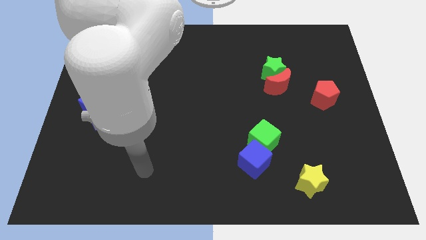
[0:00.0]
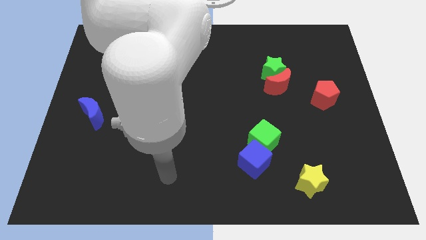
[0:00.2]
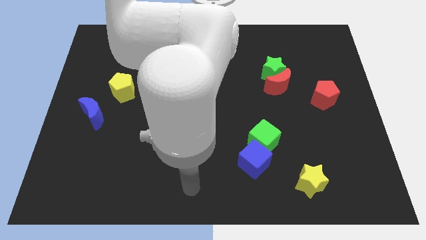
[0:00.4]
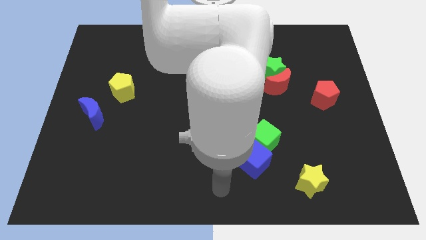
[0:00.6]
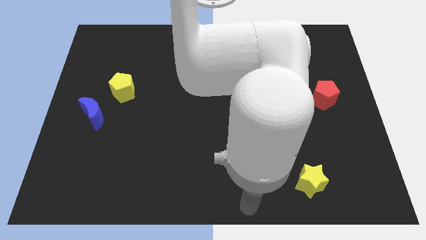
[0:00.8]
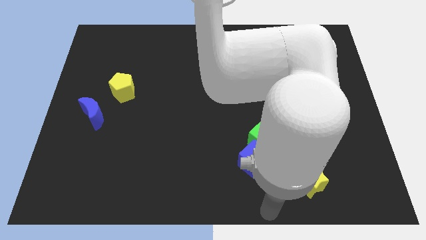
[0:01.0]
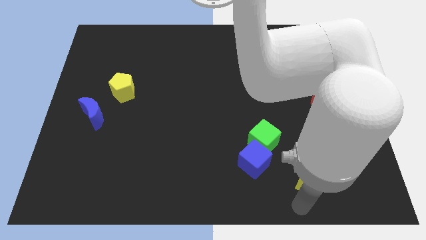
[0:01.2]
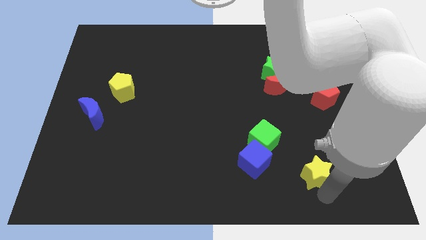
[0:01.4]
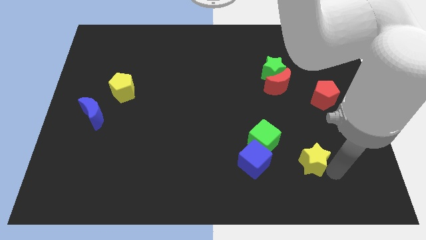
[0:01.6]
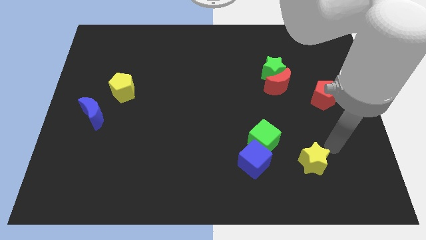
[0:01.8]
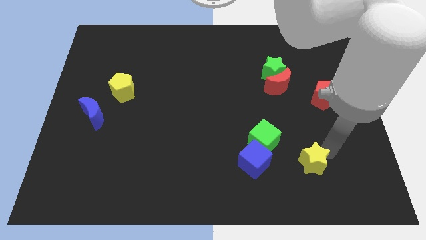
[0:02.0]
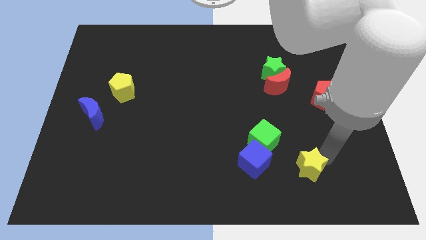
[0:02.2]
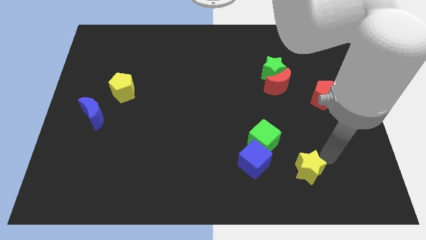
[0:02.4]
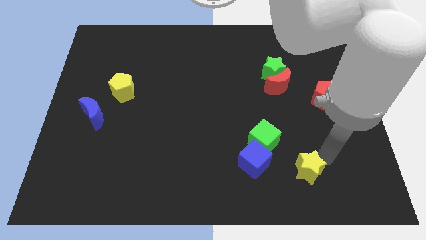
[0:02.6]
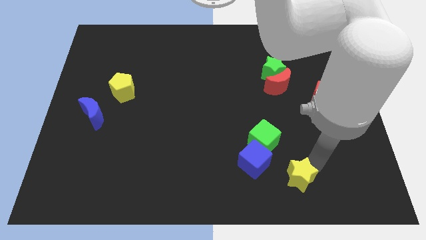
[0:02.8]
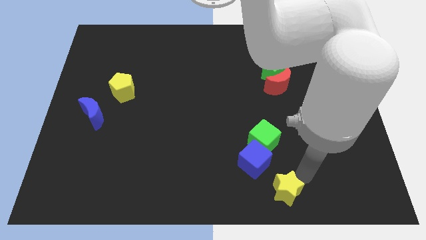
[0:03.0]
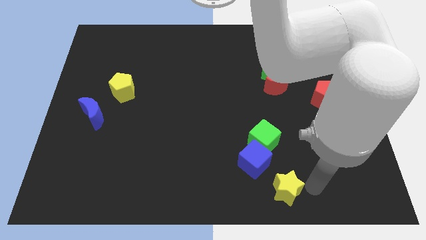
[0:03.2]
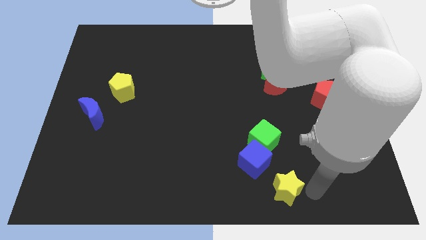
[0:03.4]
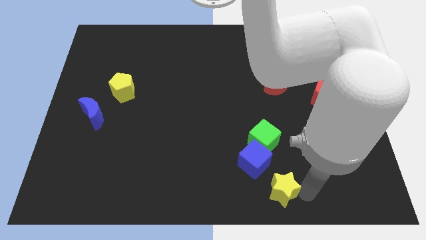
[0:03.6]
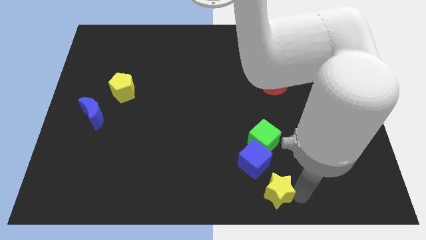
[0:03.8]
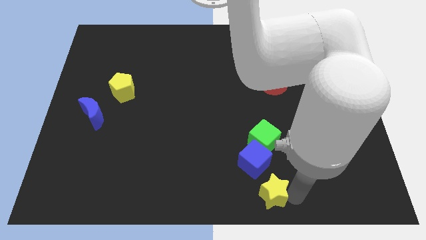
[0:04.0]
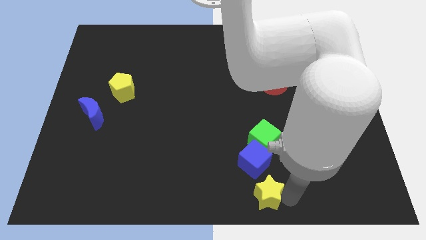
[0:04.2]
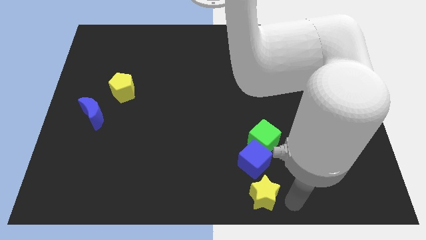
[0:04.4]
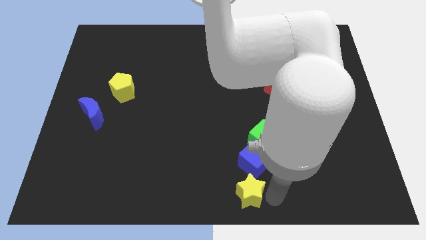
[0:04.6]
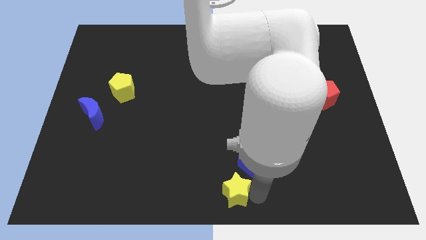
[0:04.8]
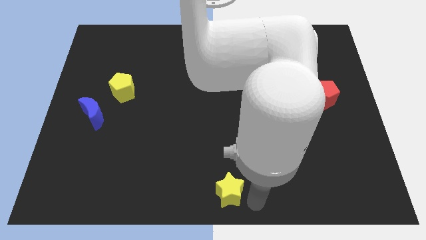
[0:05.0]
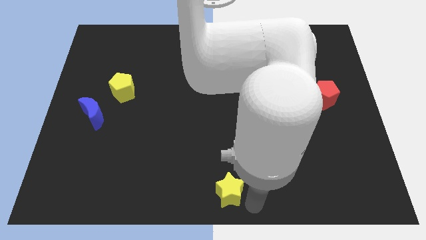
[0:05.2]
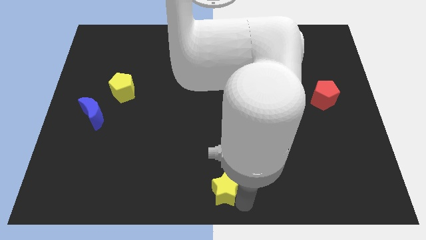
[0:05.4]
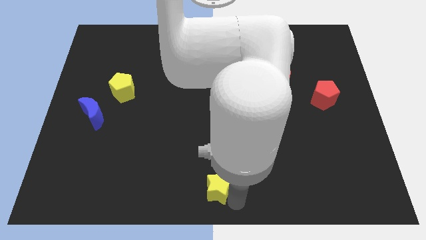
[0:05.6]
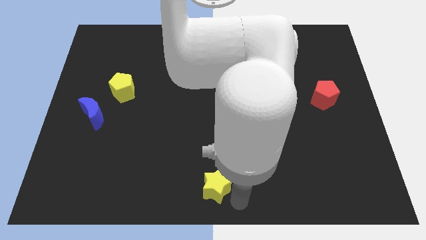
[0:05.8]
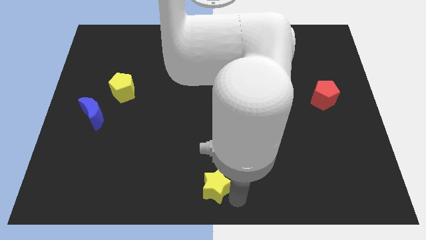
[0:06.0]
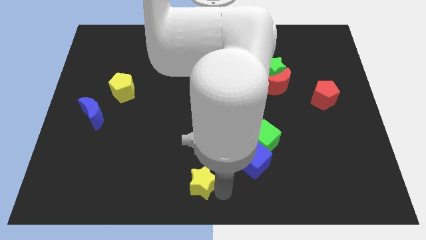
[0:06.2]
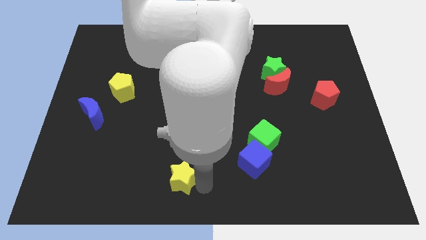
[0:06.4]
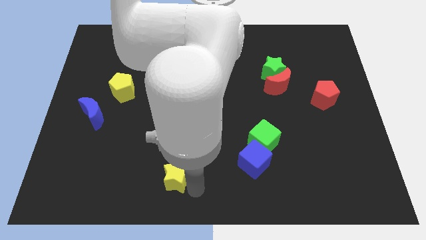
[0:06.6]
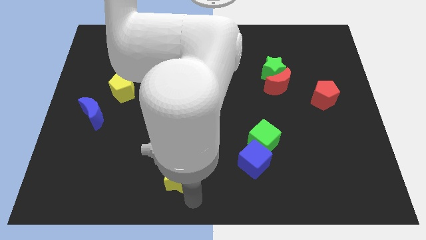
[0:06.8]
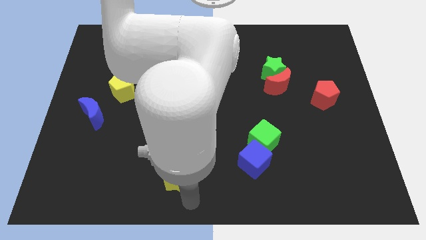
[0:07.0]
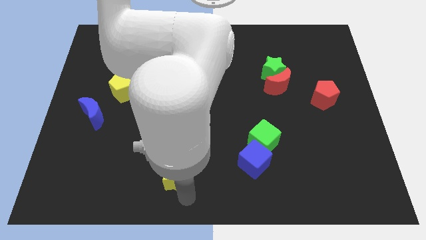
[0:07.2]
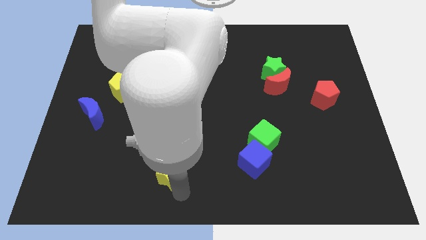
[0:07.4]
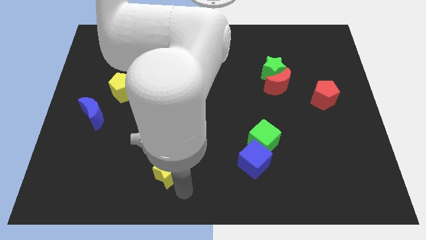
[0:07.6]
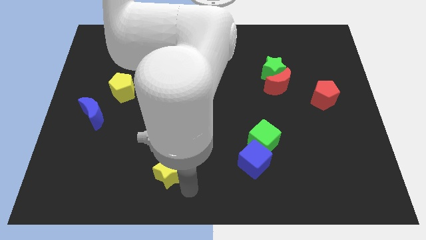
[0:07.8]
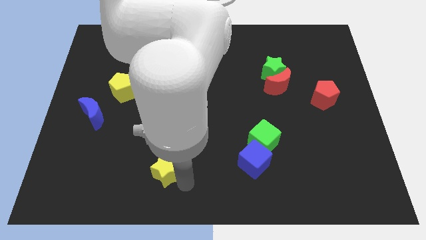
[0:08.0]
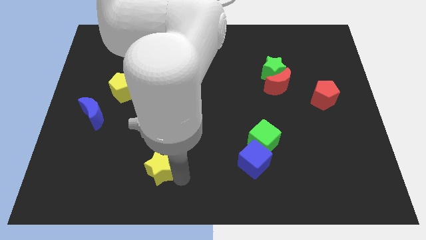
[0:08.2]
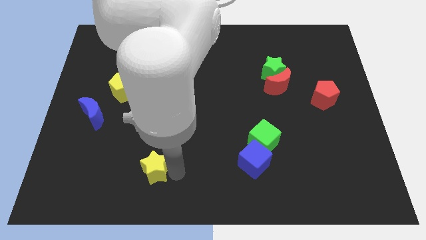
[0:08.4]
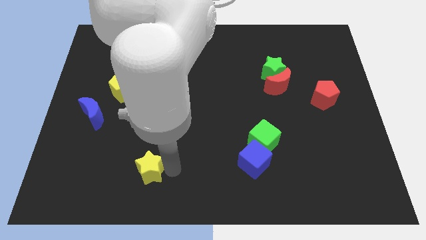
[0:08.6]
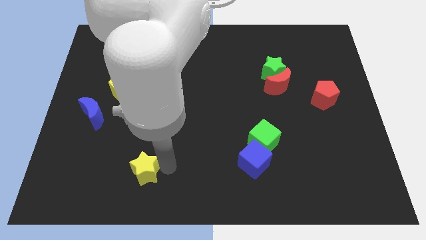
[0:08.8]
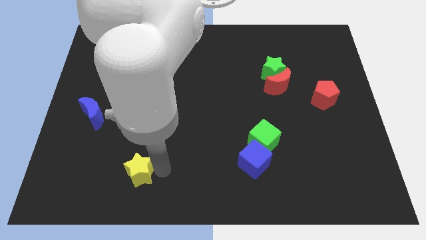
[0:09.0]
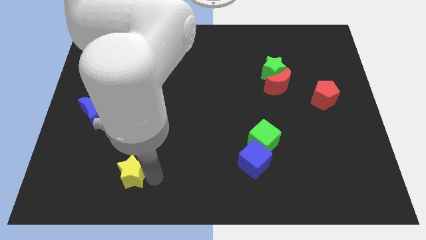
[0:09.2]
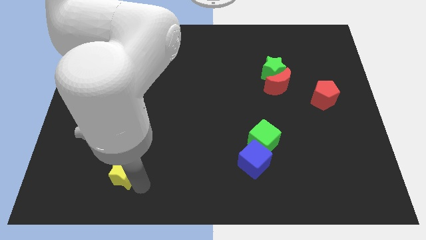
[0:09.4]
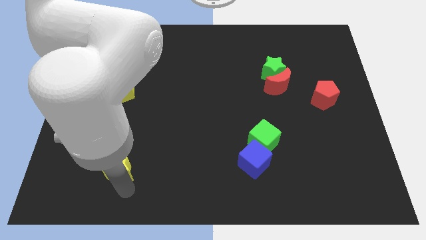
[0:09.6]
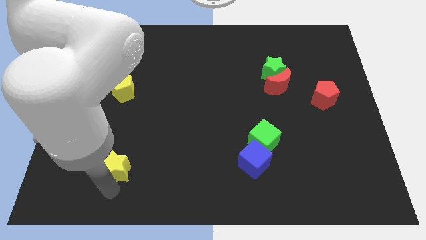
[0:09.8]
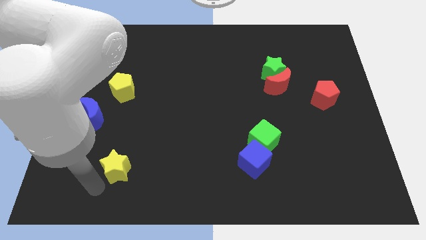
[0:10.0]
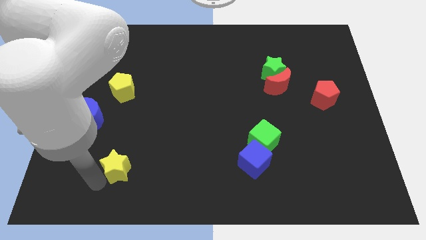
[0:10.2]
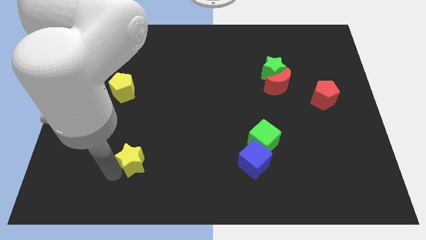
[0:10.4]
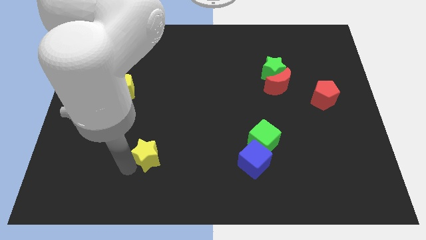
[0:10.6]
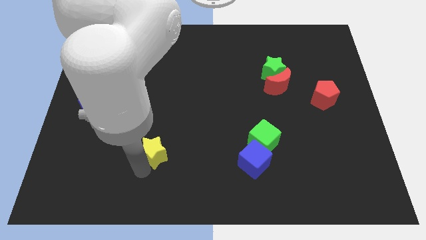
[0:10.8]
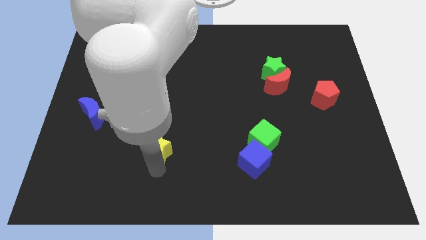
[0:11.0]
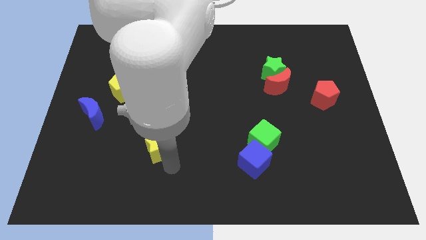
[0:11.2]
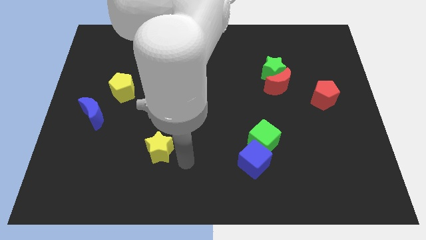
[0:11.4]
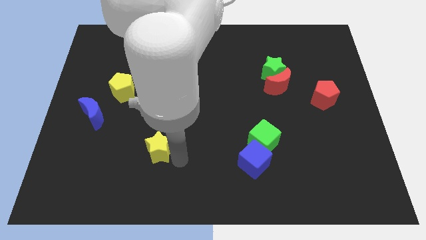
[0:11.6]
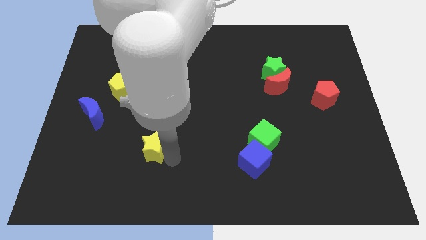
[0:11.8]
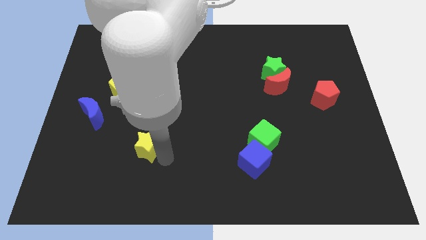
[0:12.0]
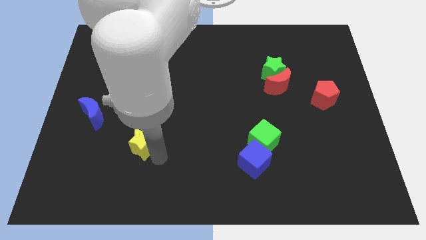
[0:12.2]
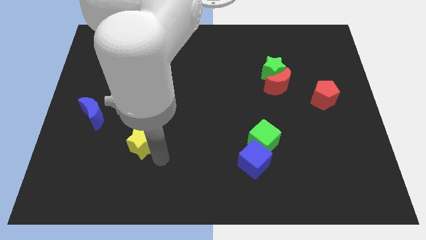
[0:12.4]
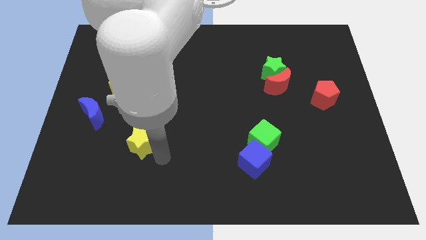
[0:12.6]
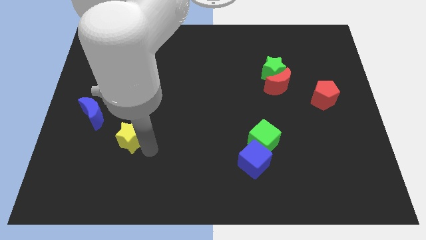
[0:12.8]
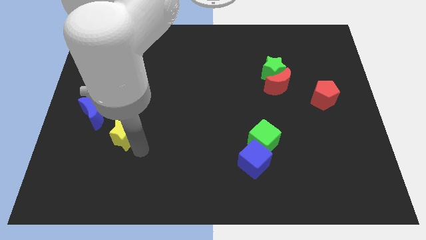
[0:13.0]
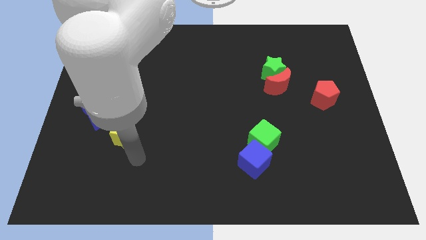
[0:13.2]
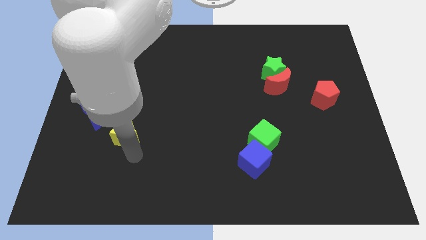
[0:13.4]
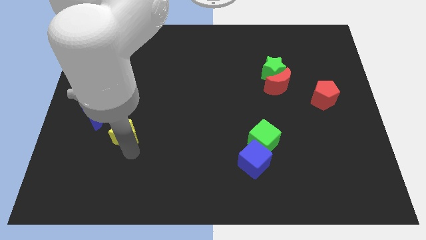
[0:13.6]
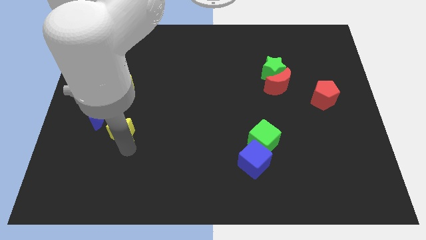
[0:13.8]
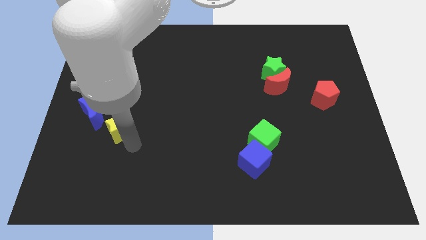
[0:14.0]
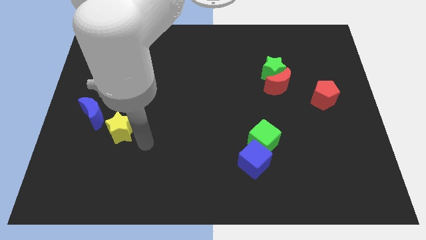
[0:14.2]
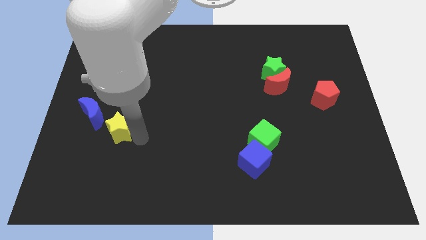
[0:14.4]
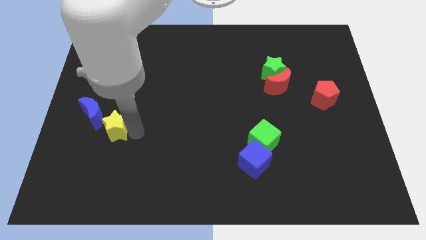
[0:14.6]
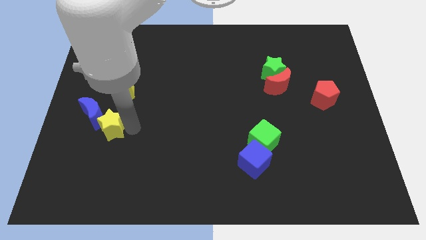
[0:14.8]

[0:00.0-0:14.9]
slide the yellow star to the blue moon

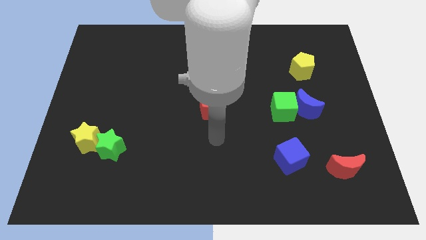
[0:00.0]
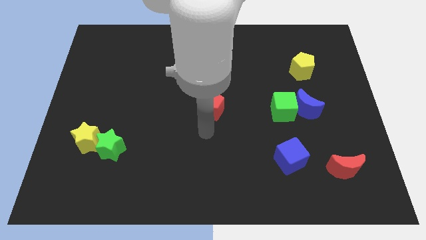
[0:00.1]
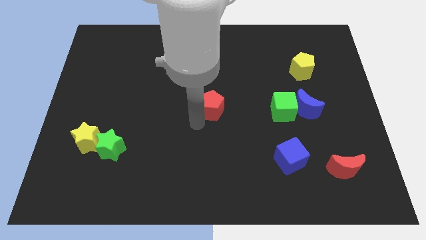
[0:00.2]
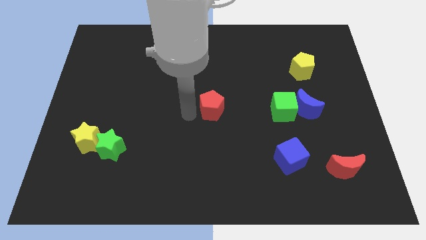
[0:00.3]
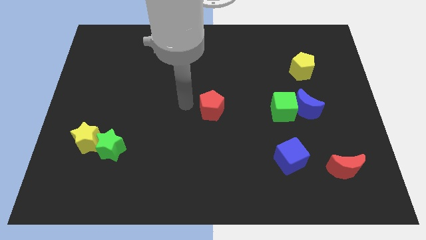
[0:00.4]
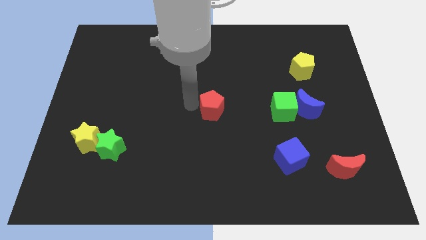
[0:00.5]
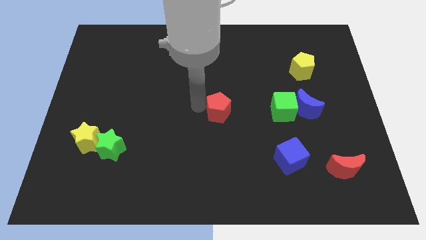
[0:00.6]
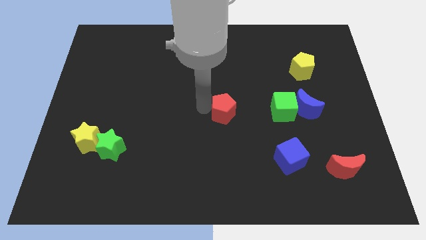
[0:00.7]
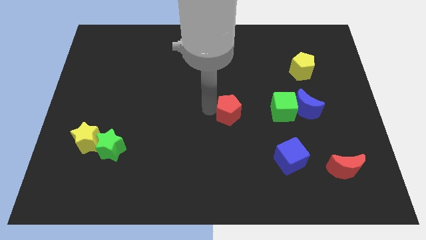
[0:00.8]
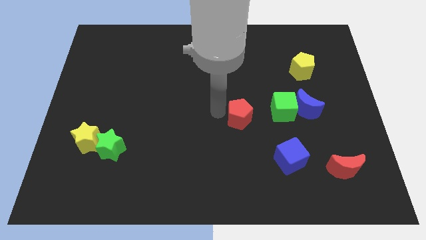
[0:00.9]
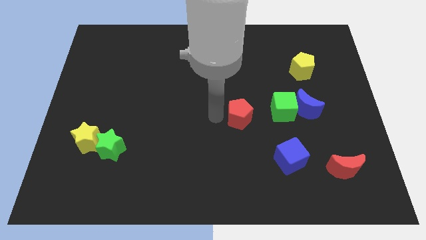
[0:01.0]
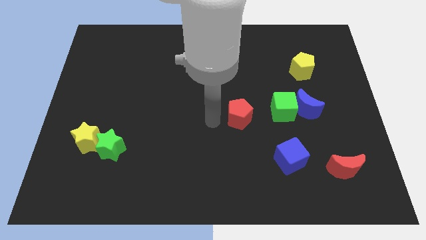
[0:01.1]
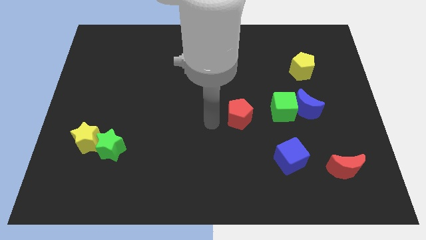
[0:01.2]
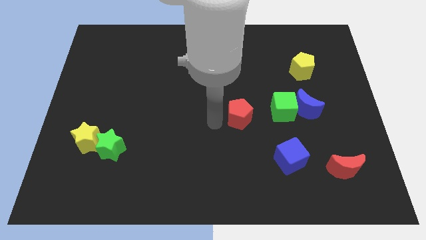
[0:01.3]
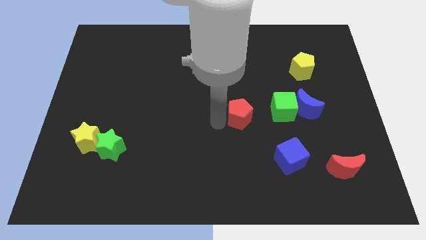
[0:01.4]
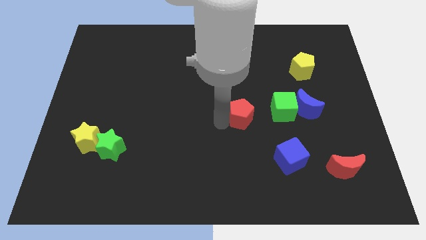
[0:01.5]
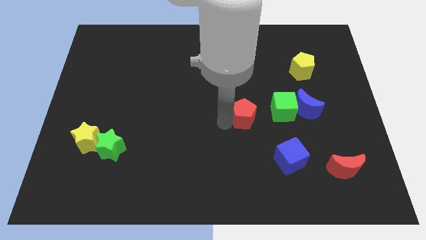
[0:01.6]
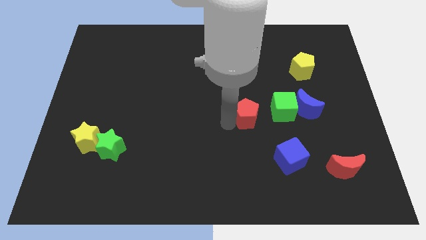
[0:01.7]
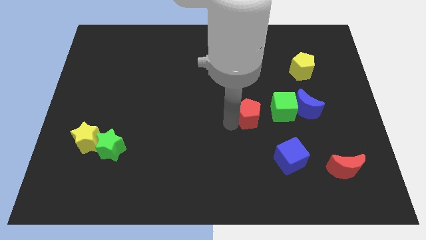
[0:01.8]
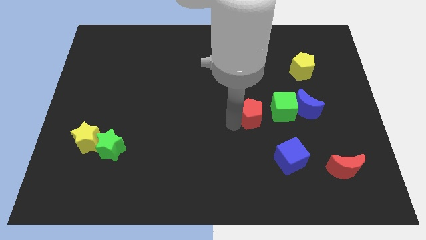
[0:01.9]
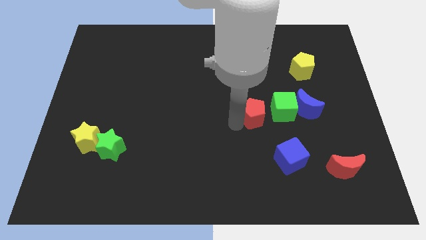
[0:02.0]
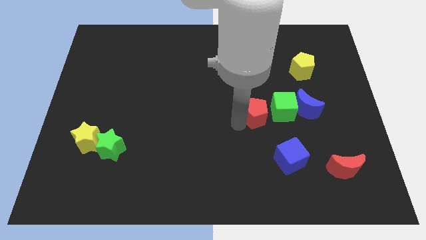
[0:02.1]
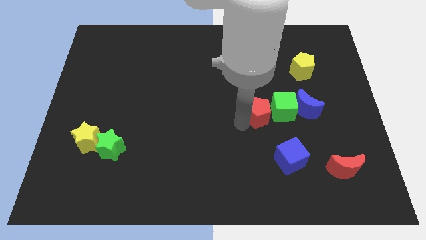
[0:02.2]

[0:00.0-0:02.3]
move the red pentagon to the green cube
